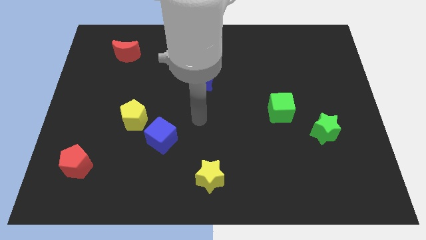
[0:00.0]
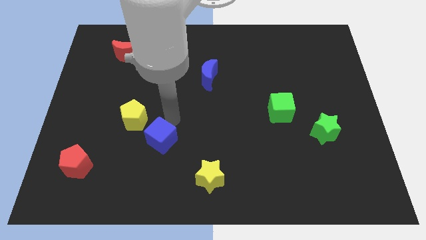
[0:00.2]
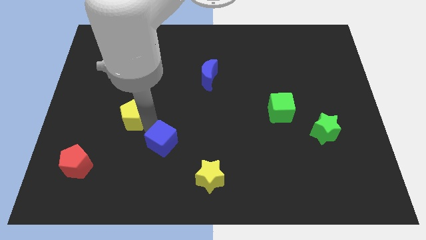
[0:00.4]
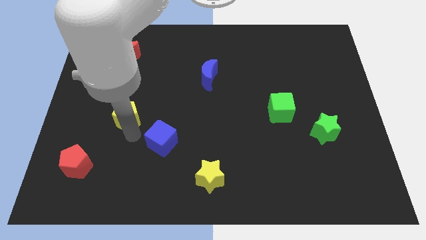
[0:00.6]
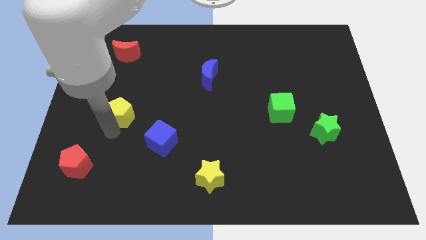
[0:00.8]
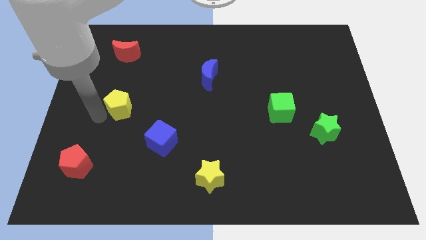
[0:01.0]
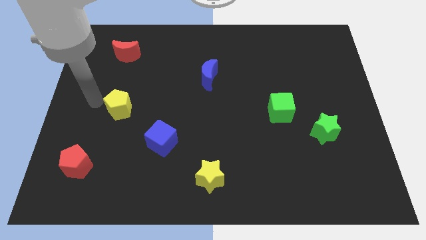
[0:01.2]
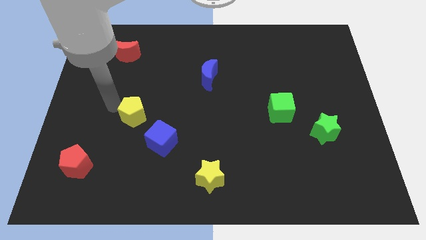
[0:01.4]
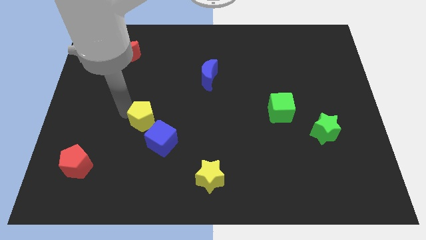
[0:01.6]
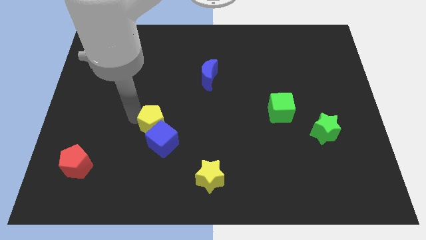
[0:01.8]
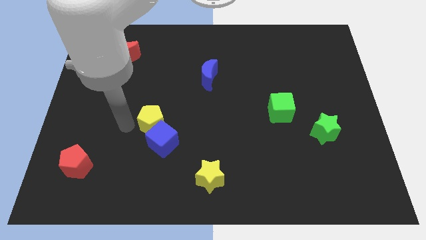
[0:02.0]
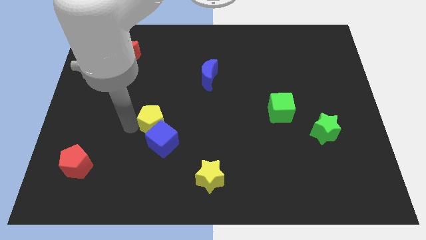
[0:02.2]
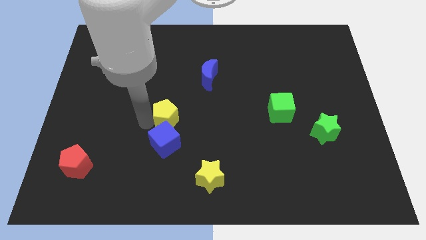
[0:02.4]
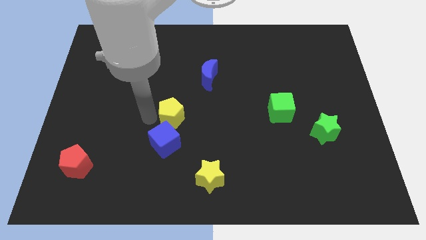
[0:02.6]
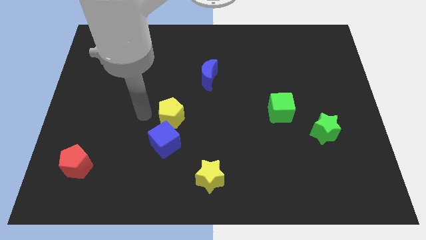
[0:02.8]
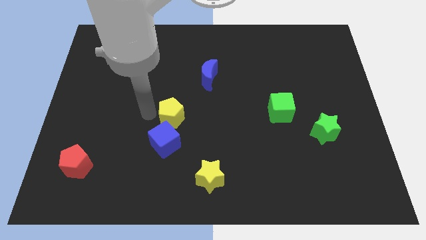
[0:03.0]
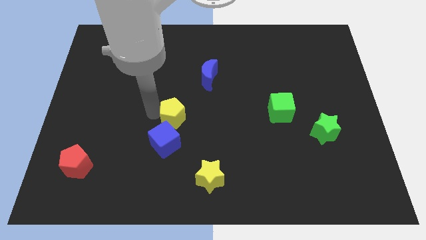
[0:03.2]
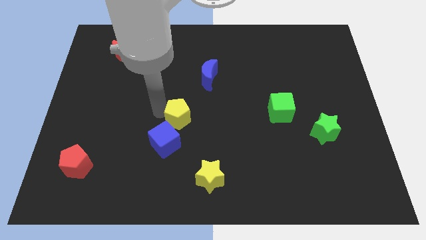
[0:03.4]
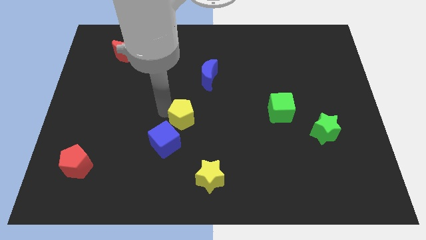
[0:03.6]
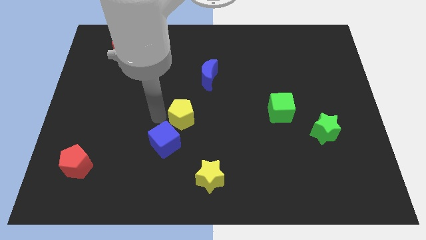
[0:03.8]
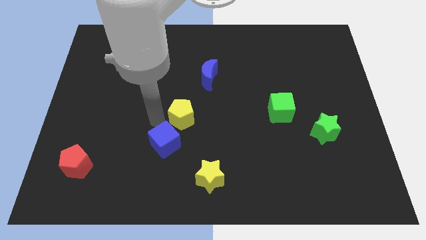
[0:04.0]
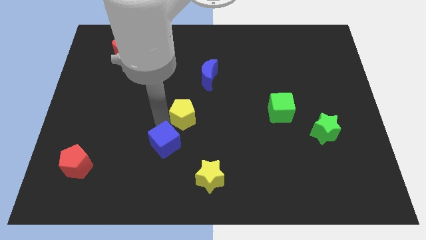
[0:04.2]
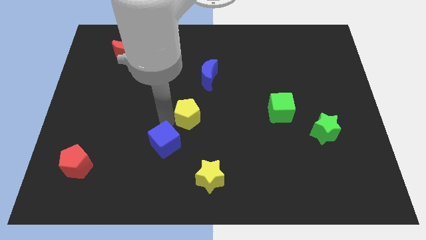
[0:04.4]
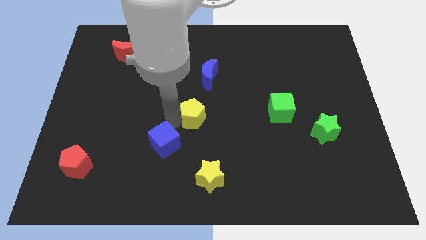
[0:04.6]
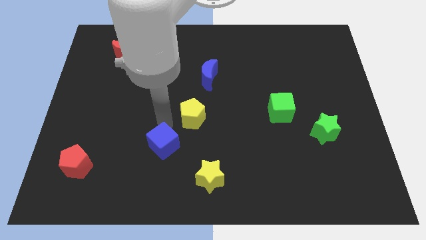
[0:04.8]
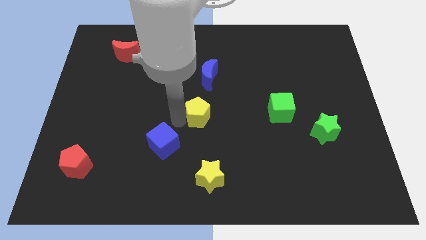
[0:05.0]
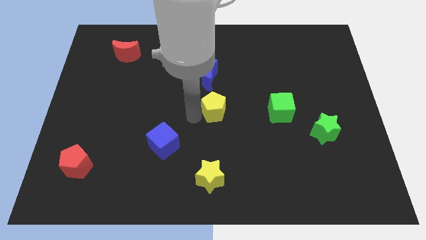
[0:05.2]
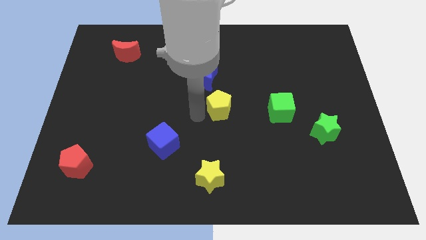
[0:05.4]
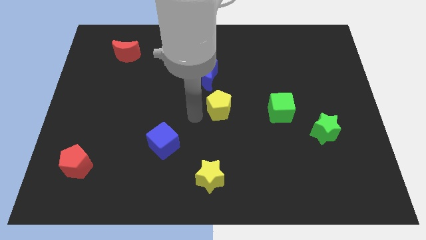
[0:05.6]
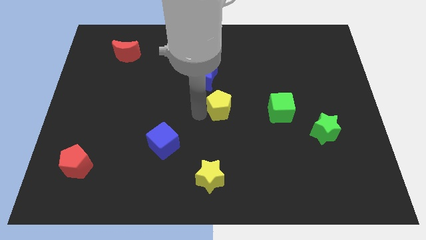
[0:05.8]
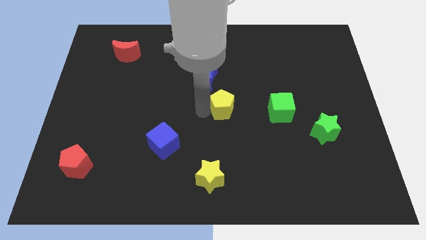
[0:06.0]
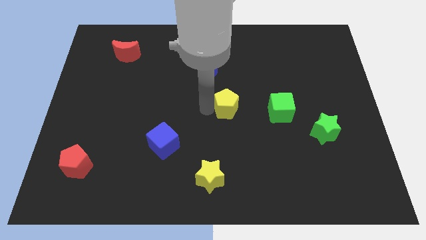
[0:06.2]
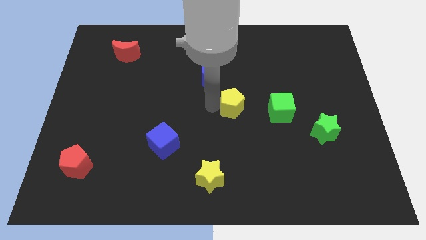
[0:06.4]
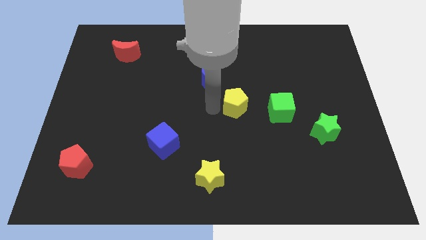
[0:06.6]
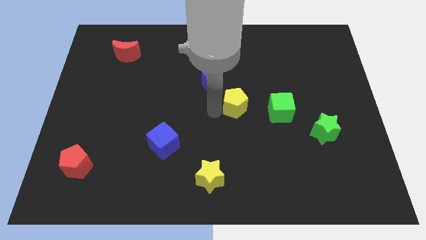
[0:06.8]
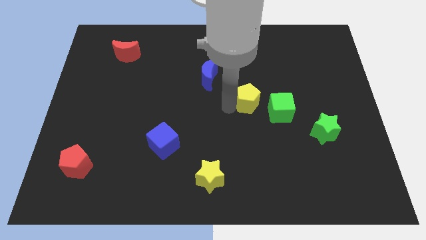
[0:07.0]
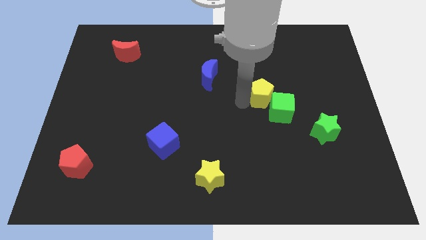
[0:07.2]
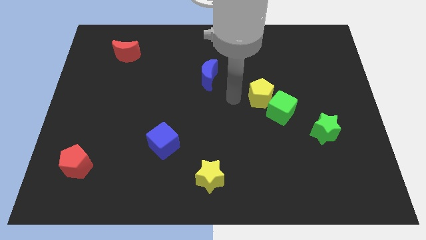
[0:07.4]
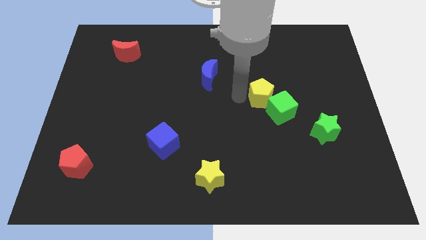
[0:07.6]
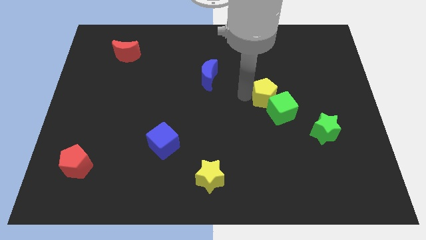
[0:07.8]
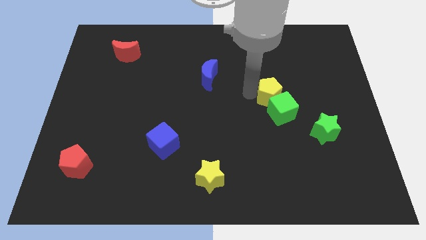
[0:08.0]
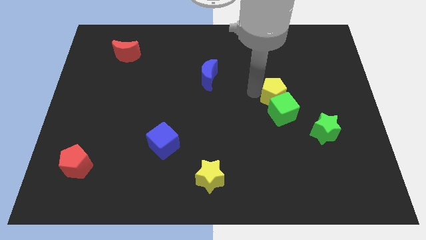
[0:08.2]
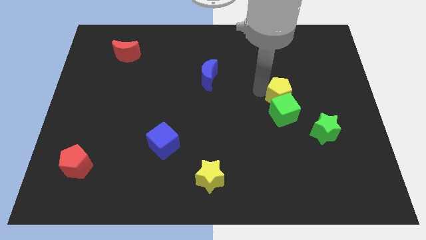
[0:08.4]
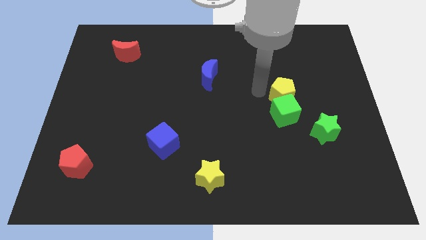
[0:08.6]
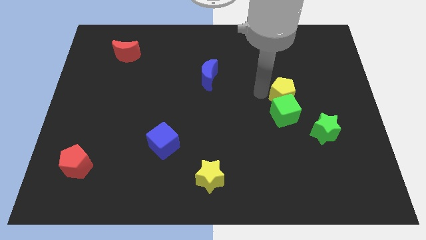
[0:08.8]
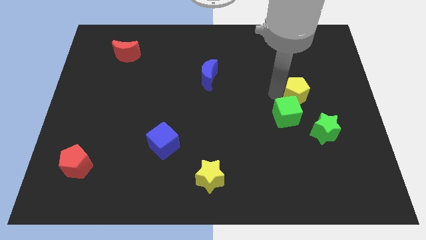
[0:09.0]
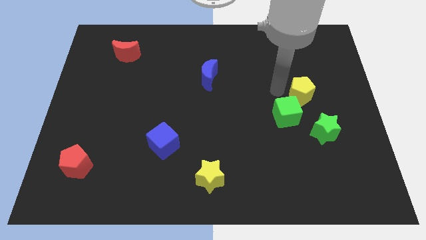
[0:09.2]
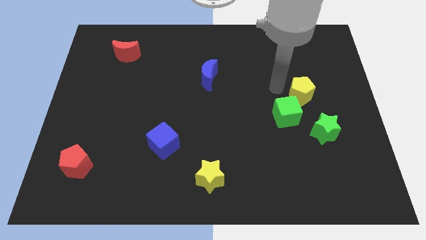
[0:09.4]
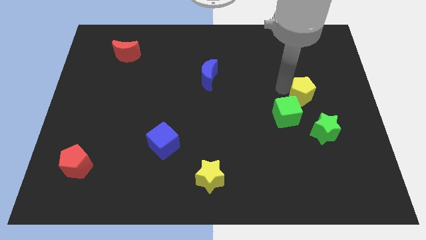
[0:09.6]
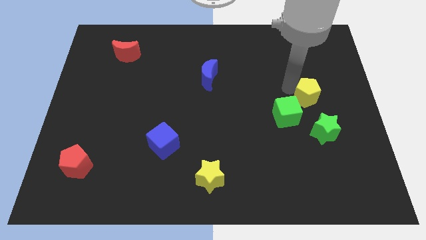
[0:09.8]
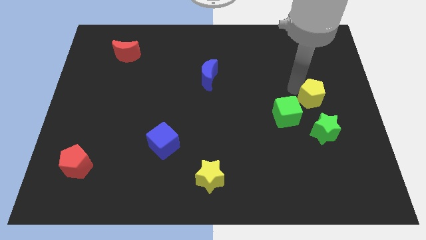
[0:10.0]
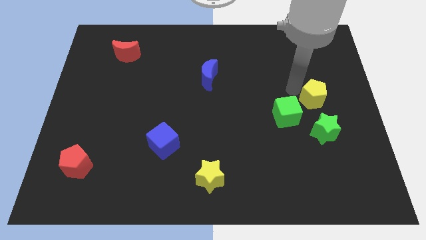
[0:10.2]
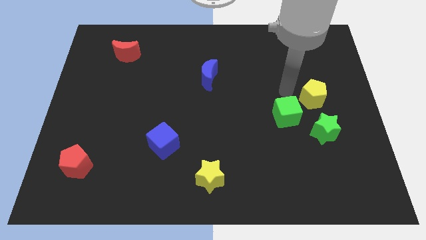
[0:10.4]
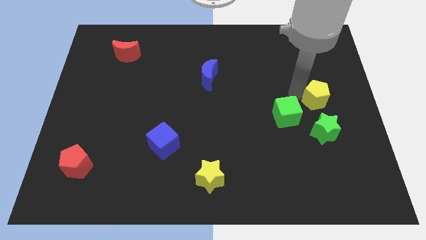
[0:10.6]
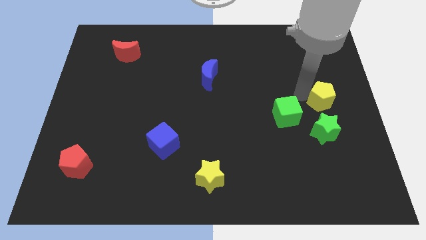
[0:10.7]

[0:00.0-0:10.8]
move the yellow pentagon to the right side

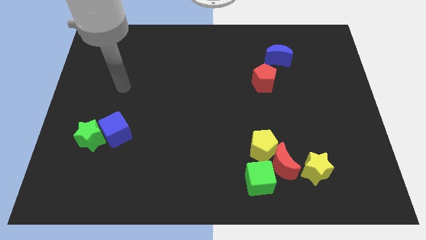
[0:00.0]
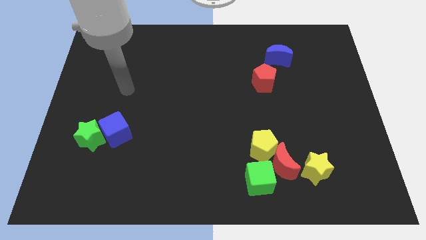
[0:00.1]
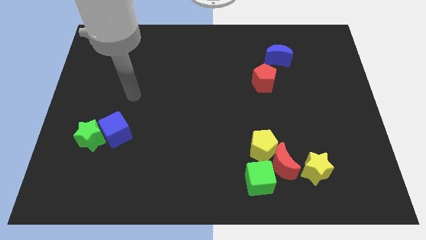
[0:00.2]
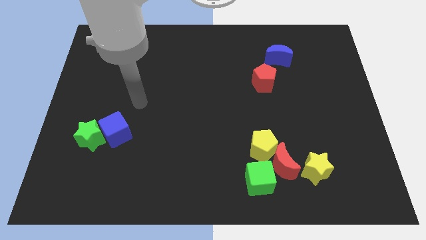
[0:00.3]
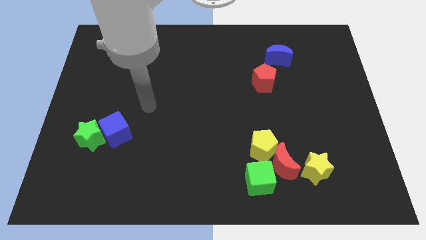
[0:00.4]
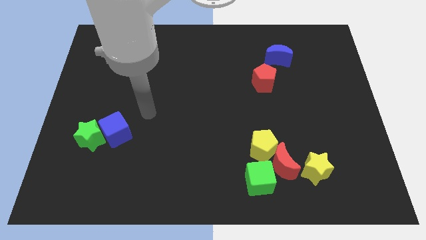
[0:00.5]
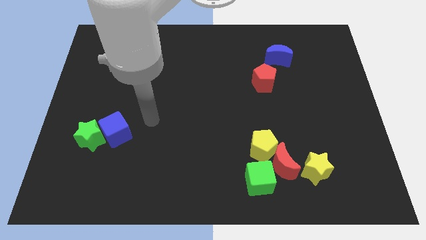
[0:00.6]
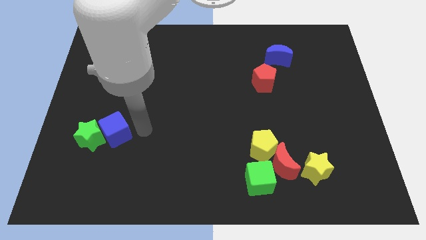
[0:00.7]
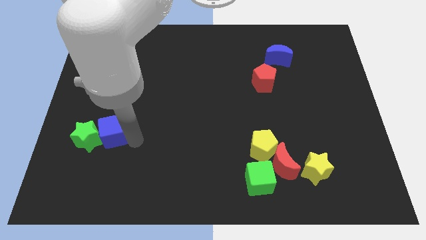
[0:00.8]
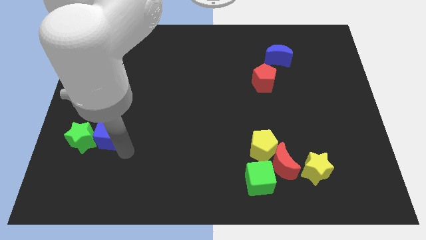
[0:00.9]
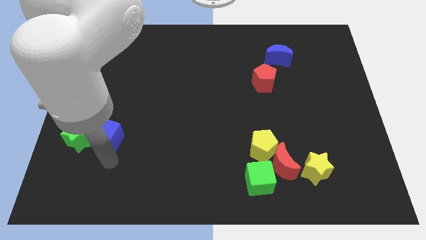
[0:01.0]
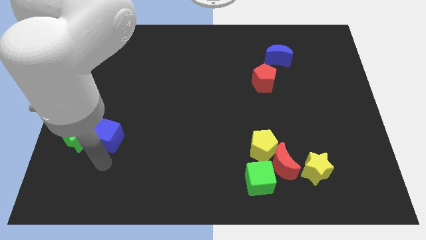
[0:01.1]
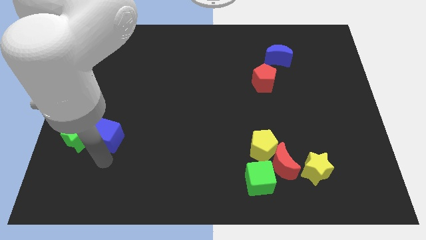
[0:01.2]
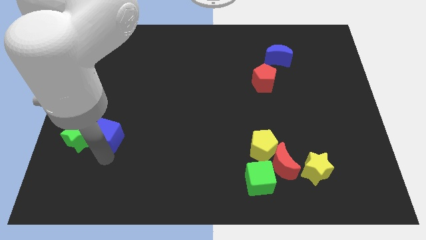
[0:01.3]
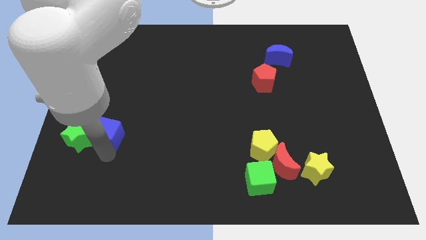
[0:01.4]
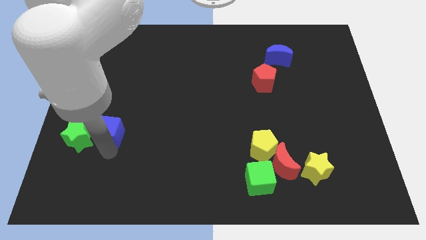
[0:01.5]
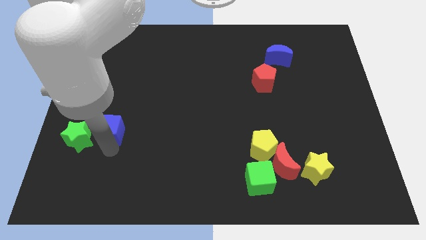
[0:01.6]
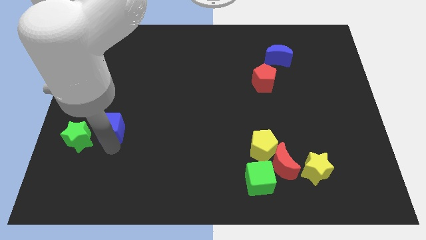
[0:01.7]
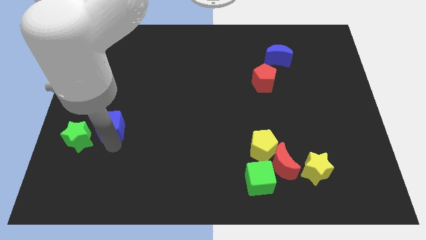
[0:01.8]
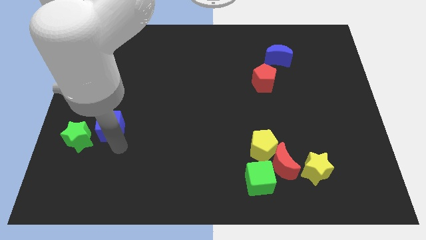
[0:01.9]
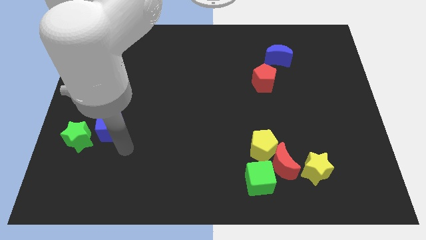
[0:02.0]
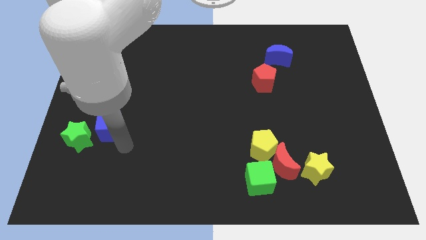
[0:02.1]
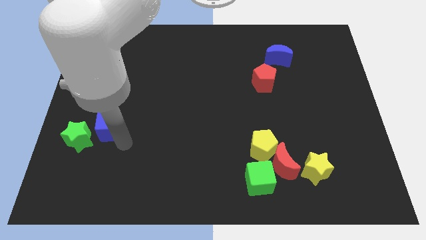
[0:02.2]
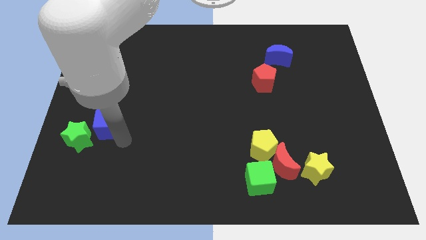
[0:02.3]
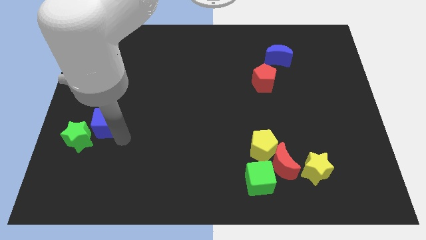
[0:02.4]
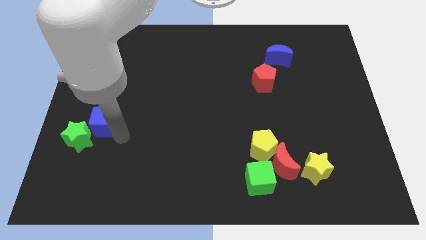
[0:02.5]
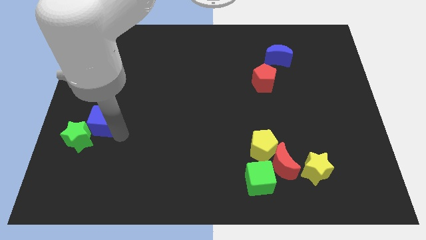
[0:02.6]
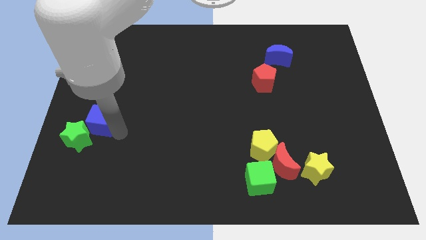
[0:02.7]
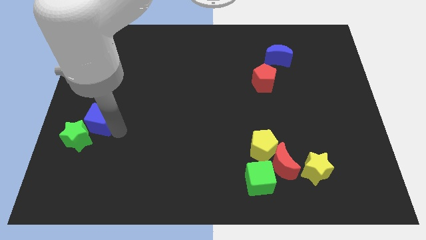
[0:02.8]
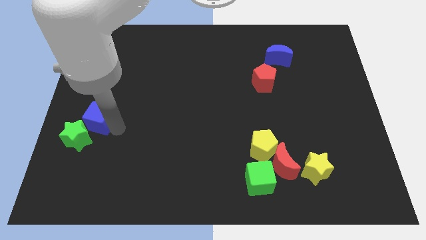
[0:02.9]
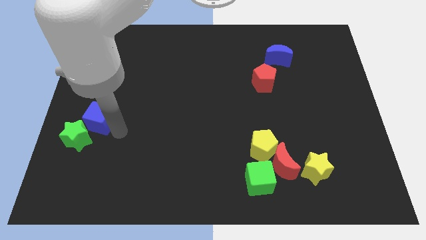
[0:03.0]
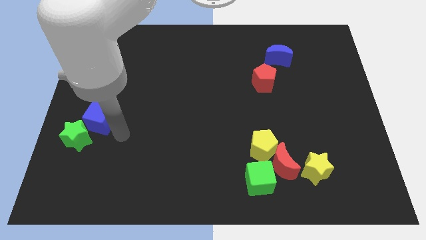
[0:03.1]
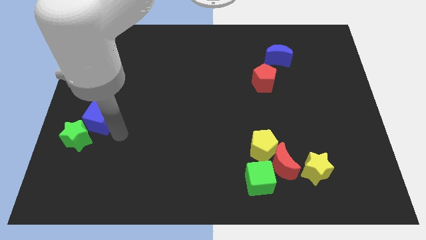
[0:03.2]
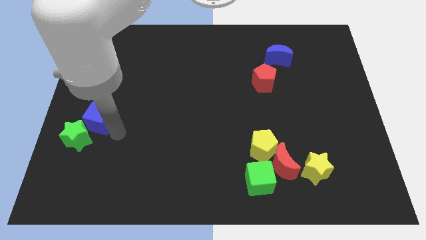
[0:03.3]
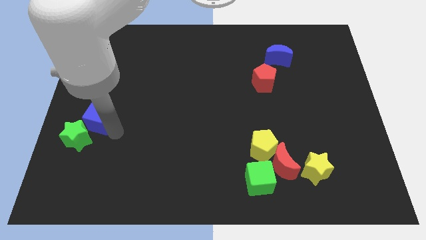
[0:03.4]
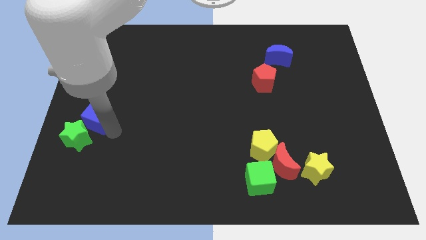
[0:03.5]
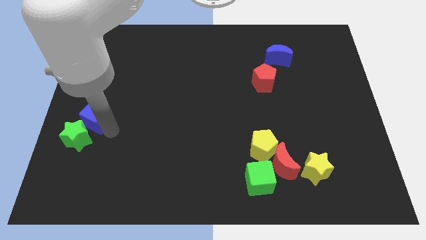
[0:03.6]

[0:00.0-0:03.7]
slide the blue cube to the center left
